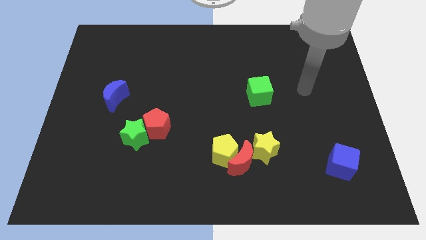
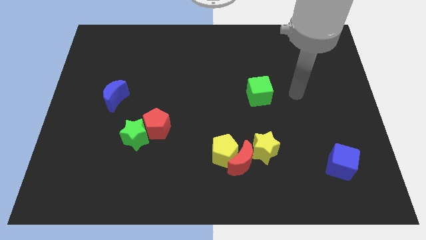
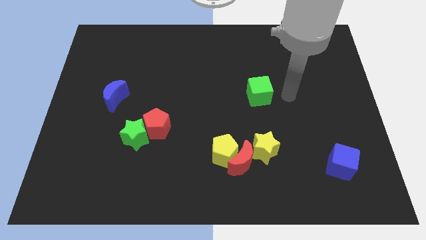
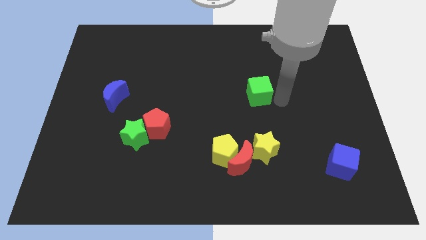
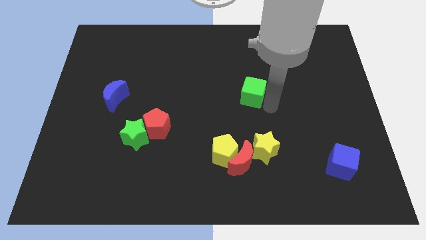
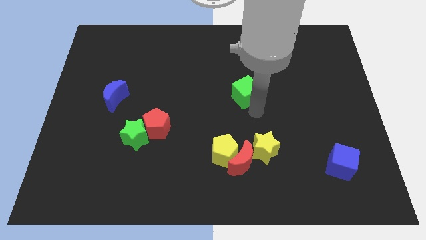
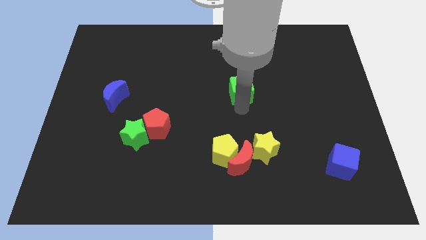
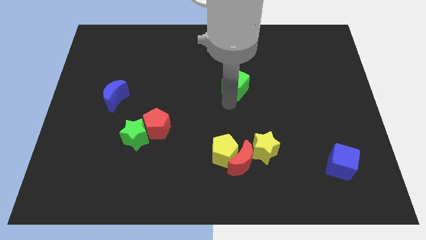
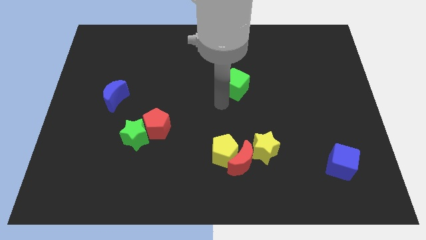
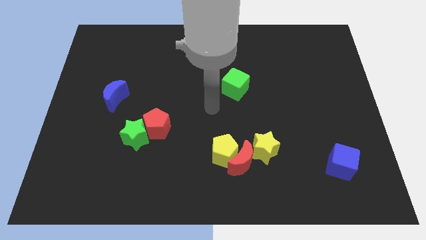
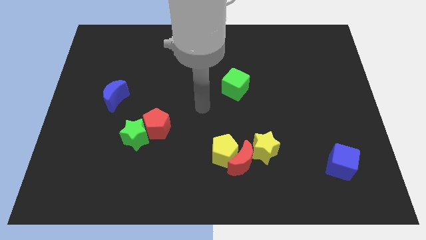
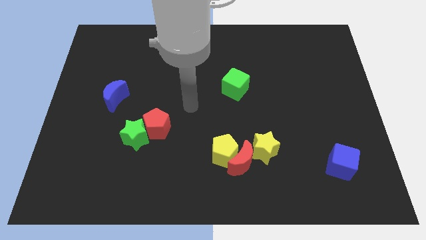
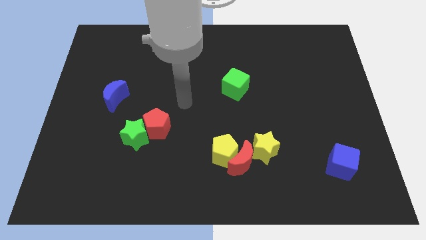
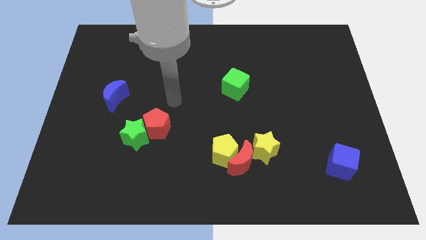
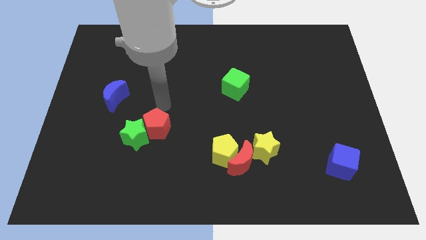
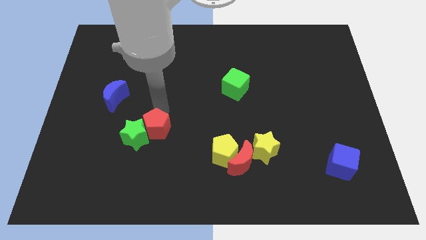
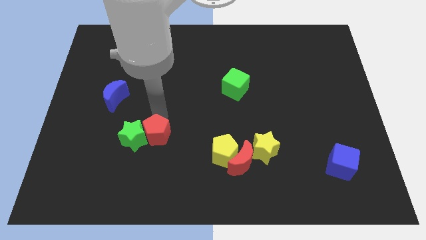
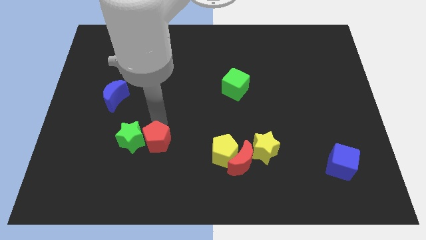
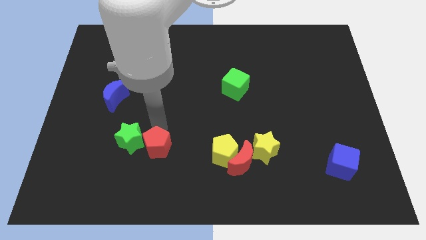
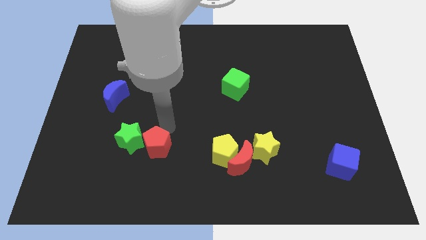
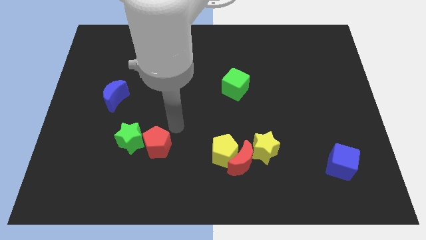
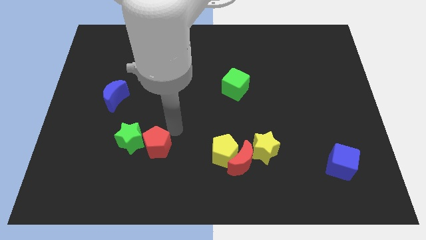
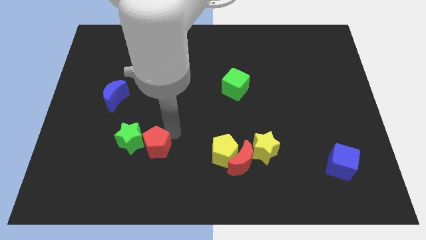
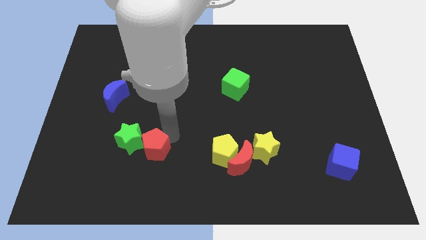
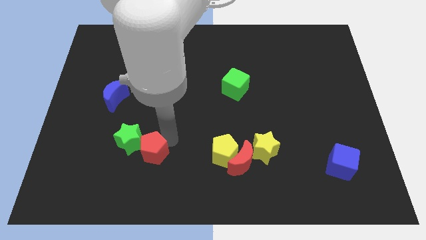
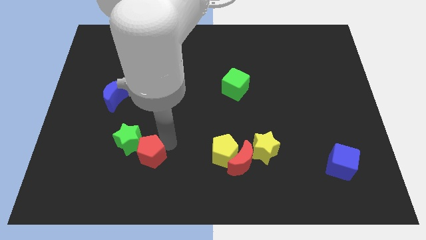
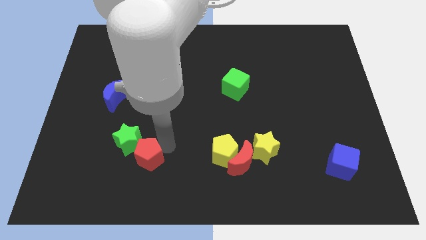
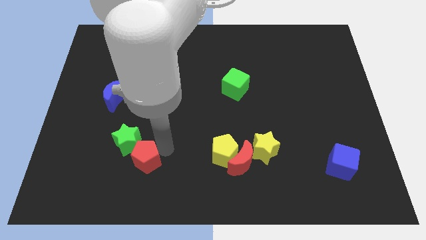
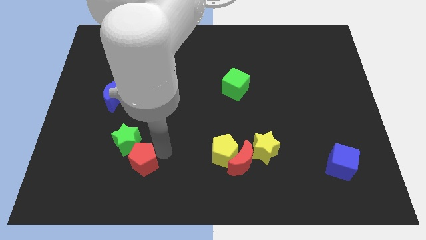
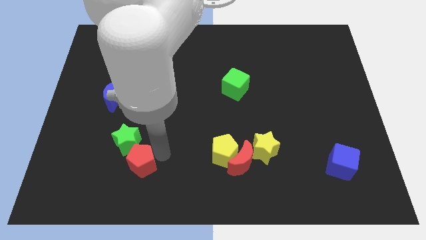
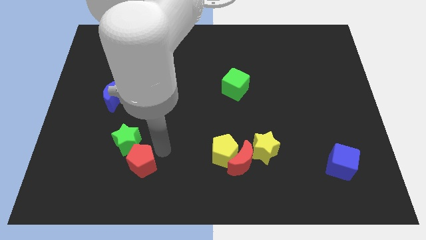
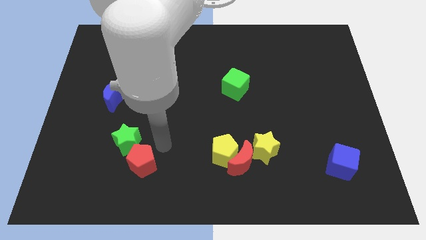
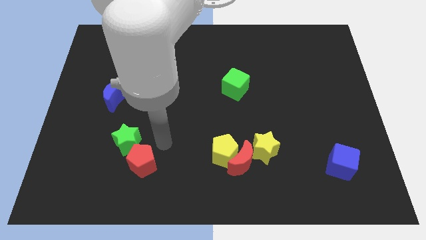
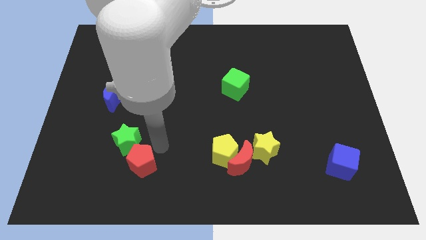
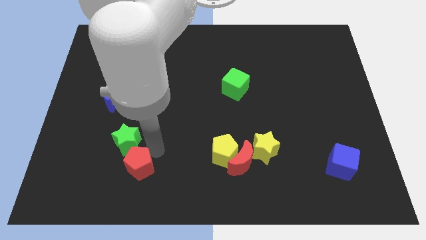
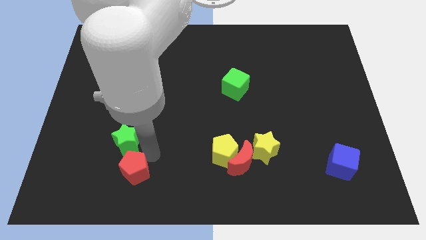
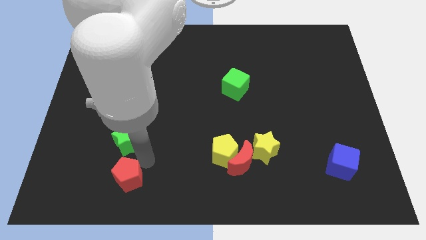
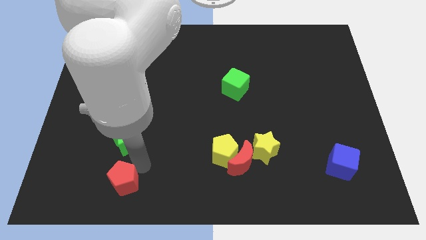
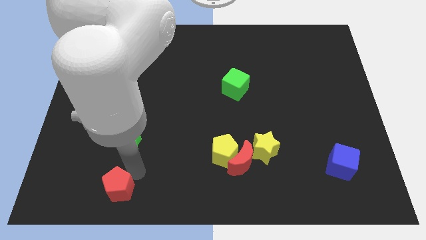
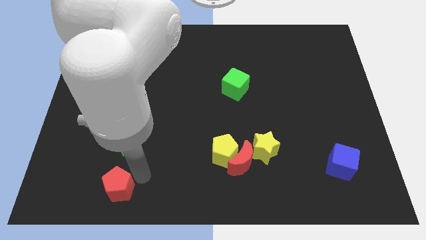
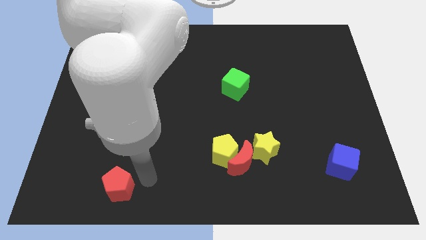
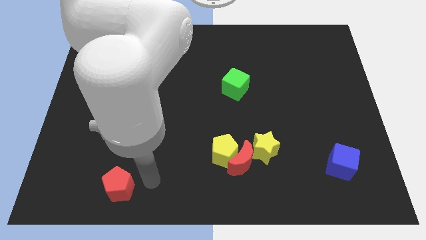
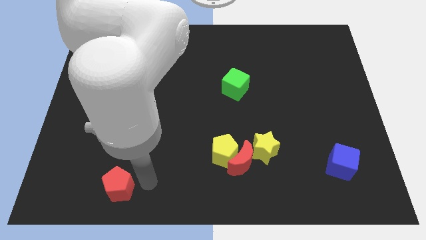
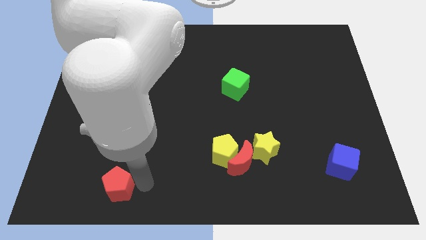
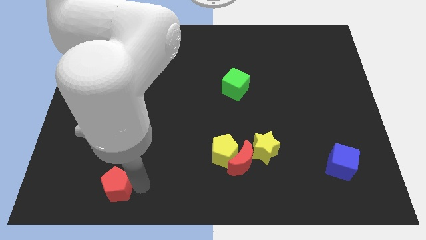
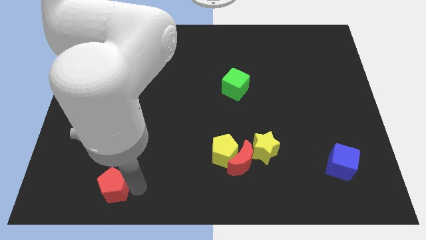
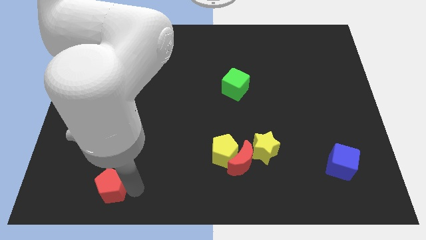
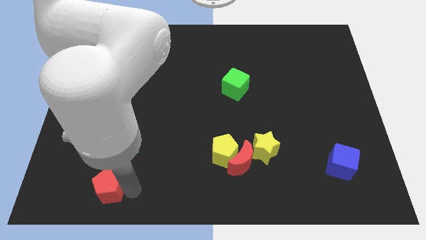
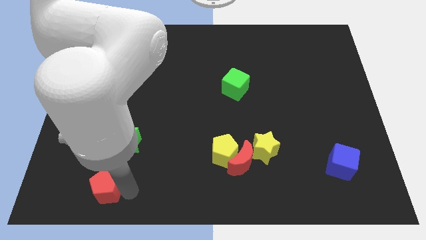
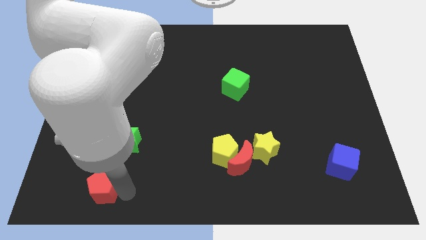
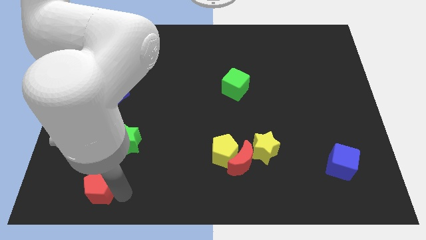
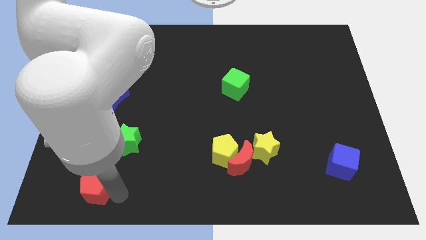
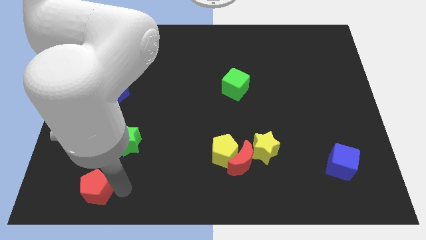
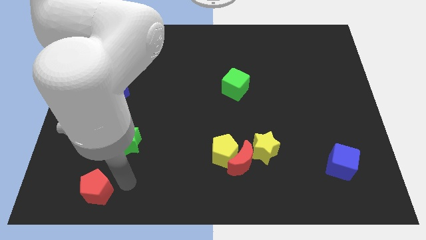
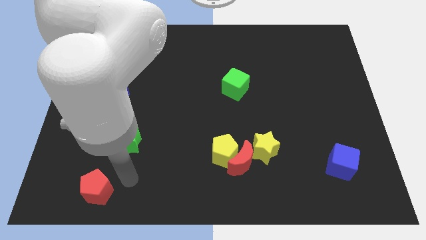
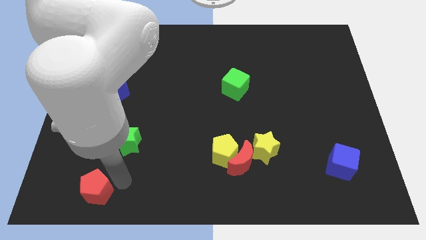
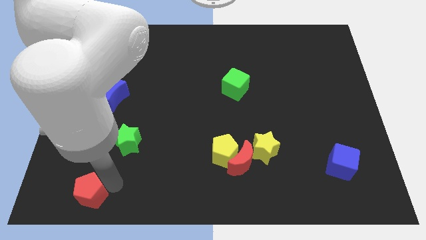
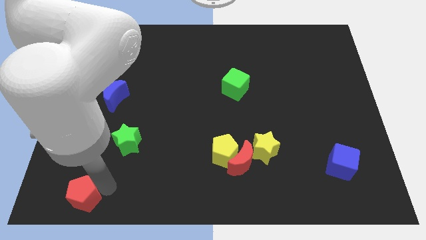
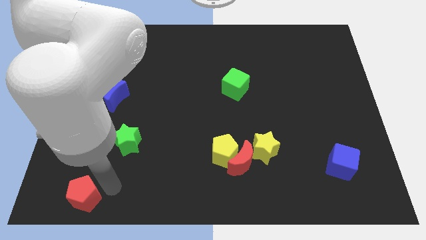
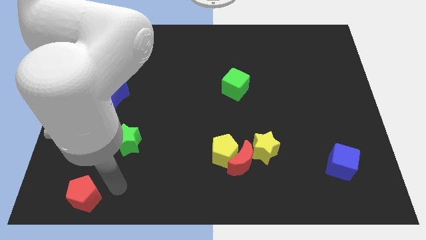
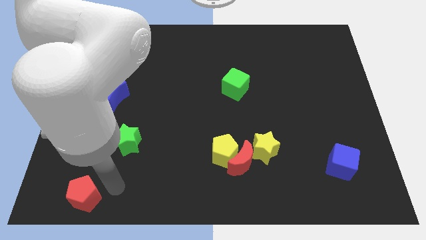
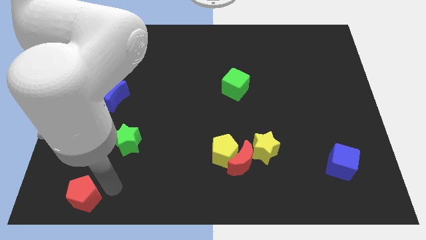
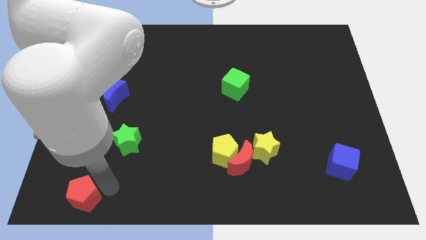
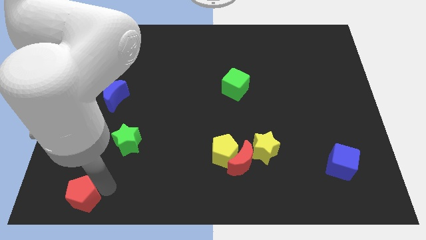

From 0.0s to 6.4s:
move the red pentagon to the bottom left of the board
